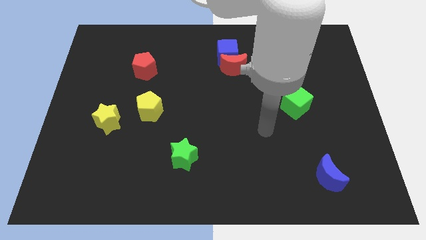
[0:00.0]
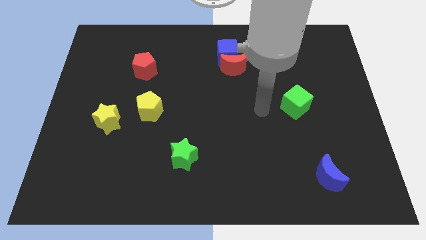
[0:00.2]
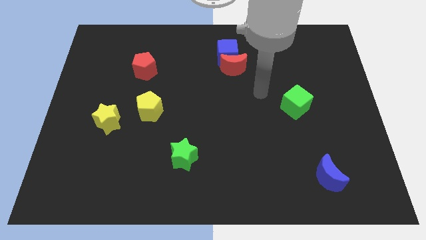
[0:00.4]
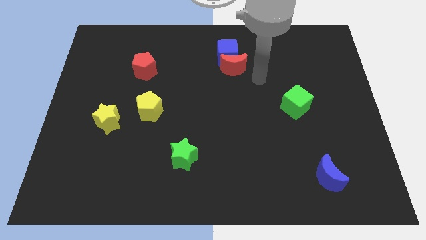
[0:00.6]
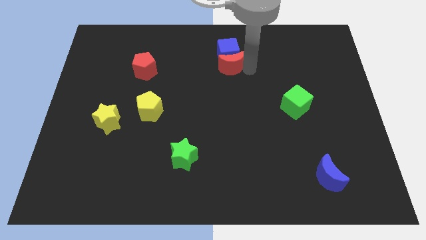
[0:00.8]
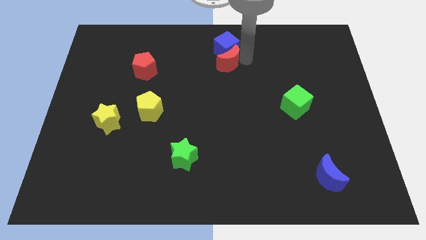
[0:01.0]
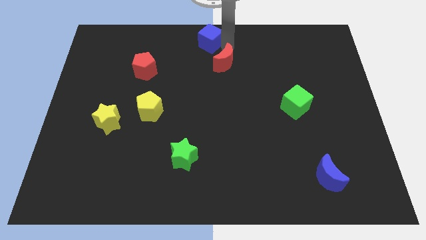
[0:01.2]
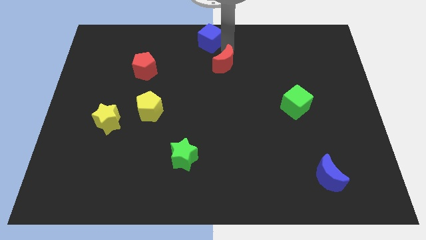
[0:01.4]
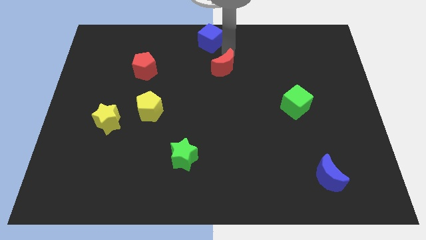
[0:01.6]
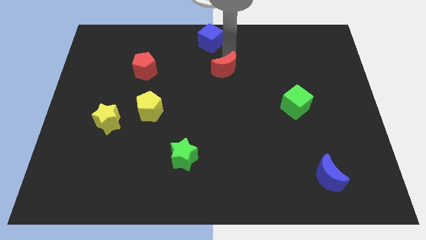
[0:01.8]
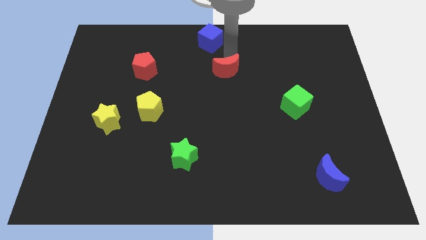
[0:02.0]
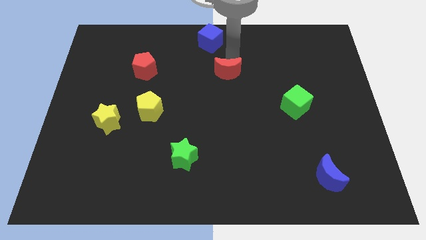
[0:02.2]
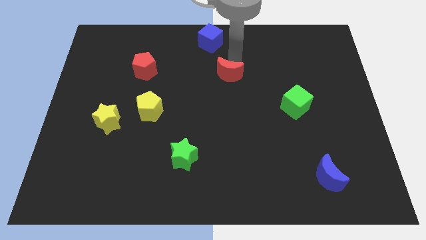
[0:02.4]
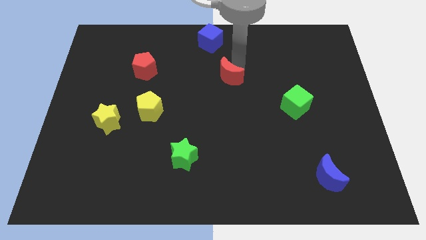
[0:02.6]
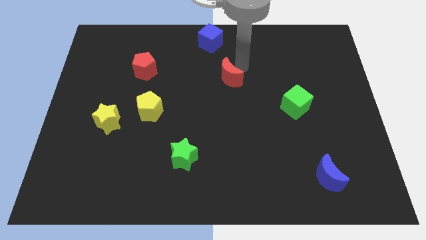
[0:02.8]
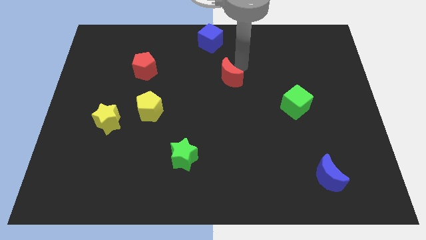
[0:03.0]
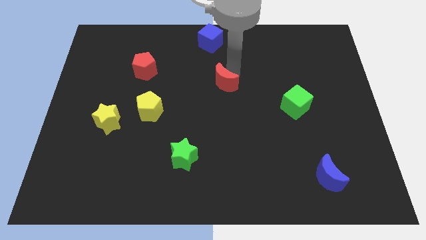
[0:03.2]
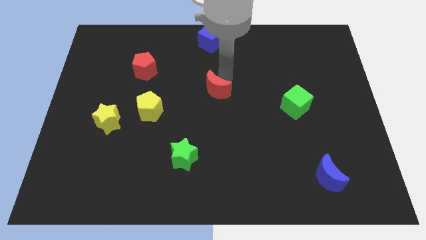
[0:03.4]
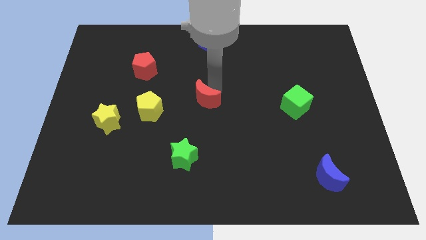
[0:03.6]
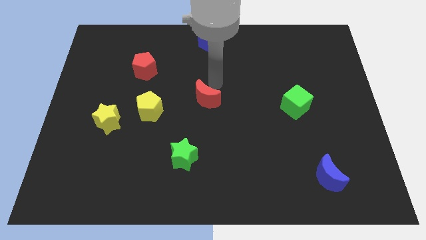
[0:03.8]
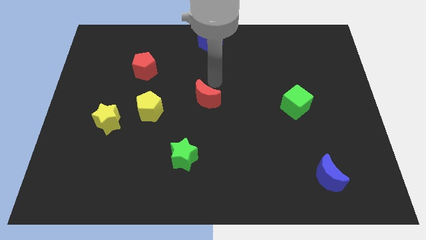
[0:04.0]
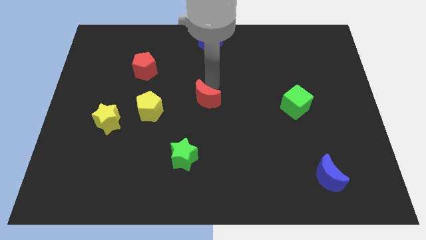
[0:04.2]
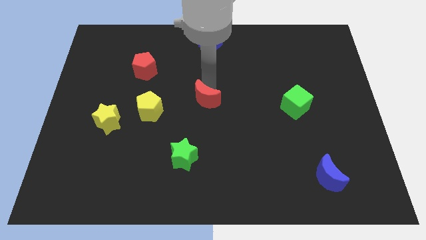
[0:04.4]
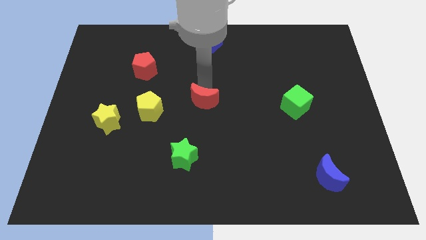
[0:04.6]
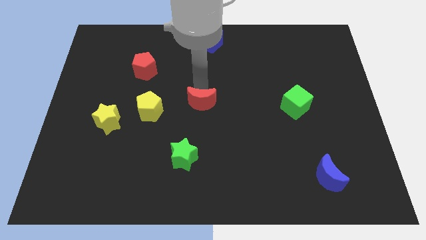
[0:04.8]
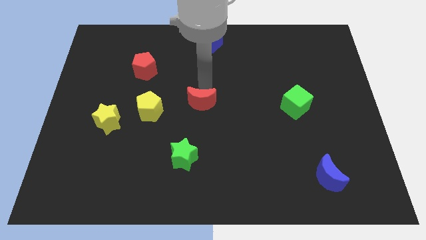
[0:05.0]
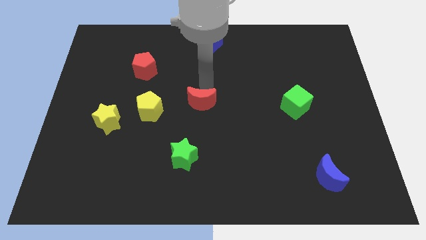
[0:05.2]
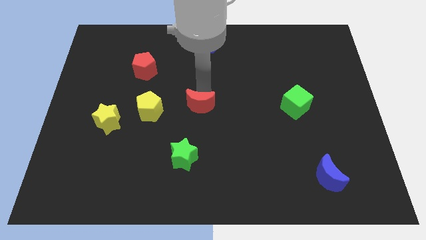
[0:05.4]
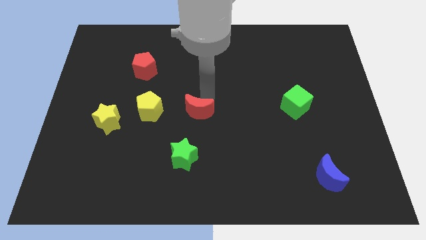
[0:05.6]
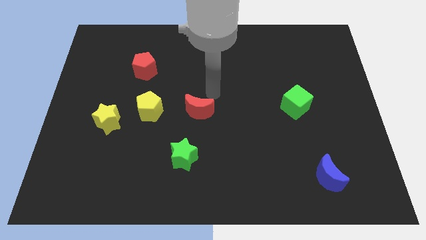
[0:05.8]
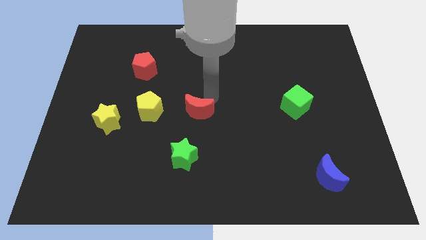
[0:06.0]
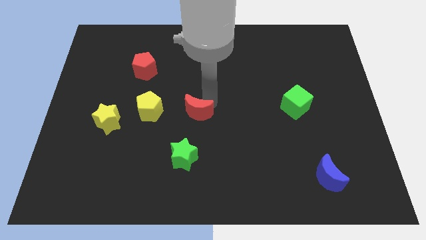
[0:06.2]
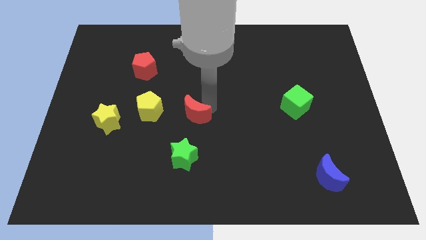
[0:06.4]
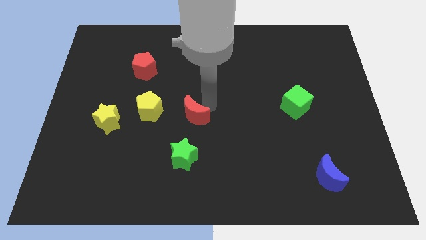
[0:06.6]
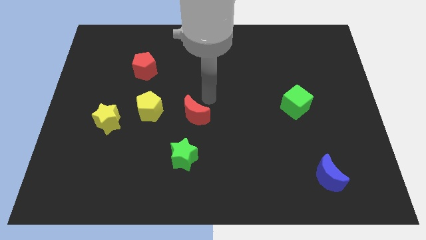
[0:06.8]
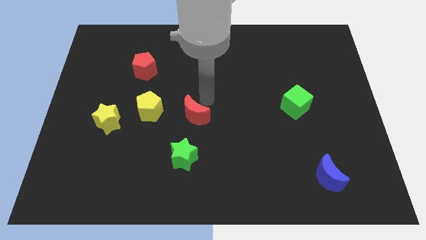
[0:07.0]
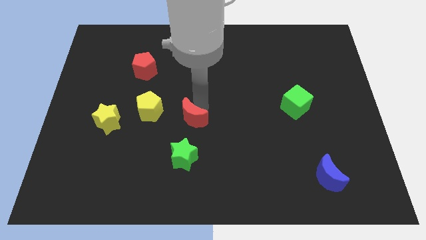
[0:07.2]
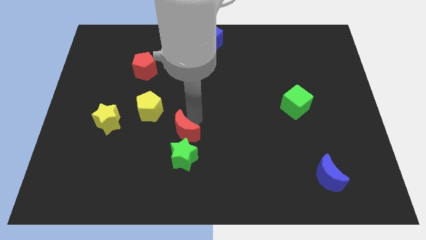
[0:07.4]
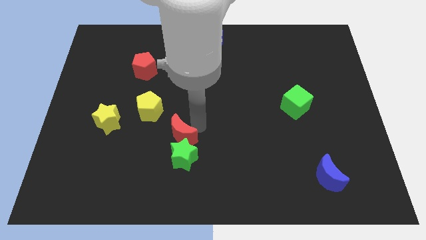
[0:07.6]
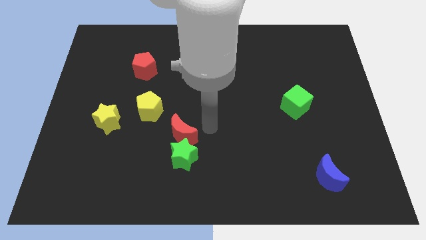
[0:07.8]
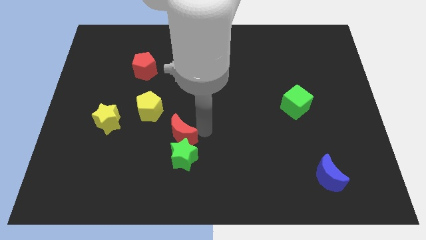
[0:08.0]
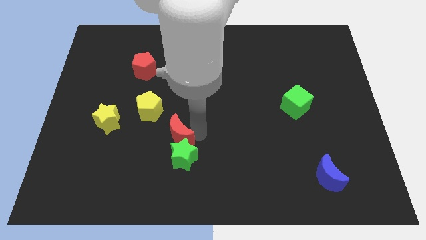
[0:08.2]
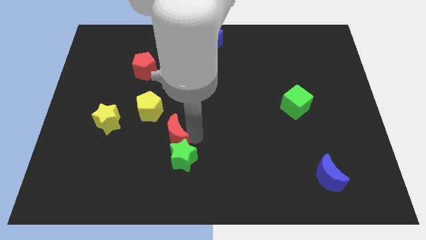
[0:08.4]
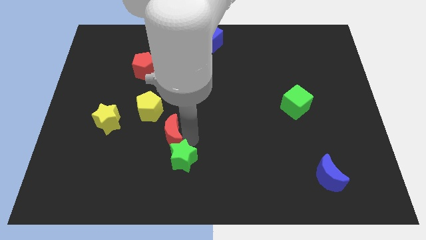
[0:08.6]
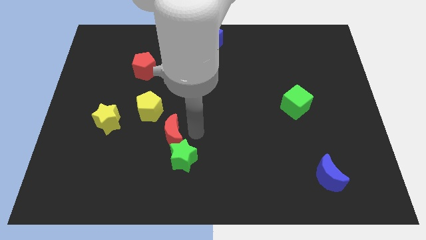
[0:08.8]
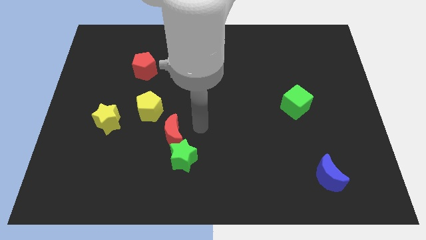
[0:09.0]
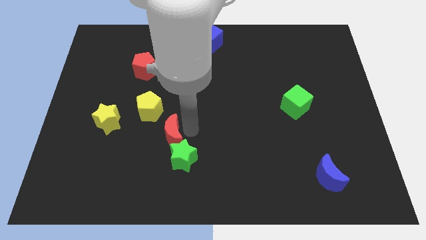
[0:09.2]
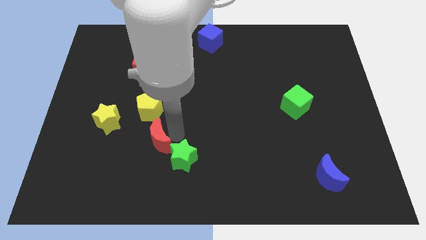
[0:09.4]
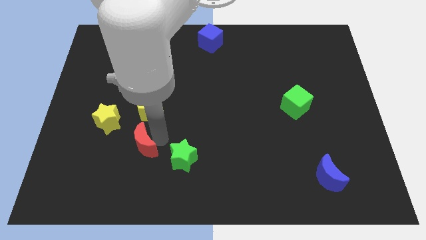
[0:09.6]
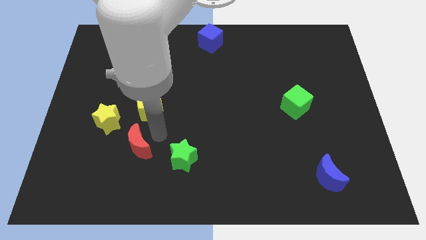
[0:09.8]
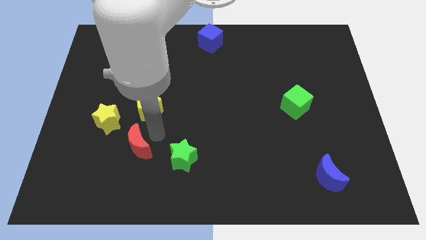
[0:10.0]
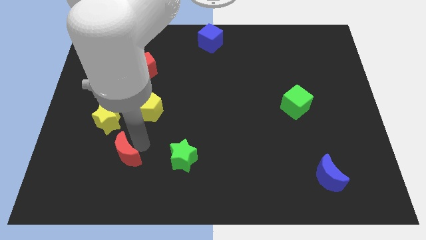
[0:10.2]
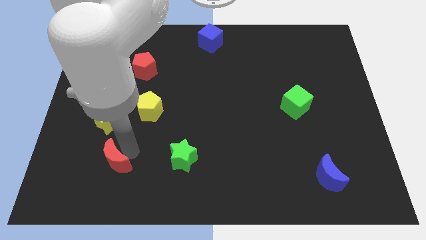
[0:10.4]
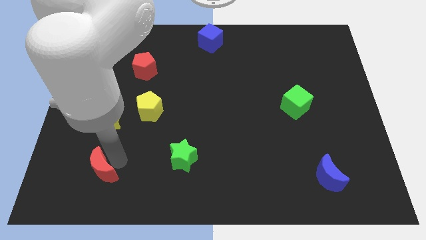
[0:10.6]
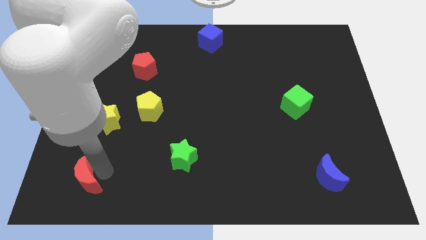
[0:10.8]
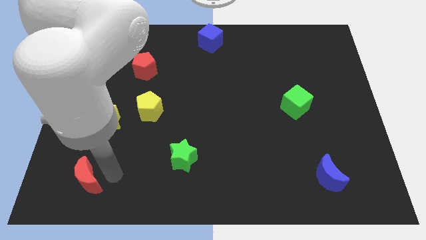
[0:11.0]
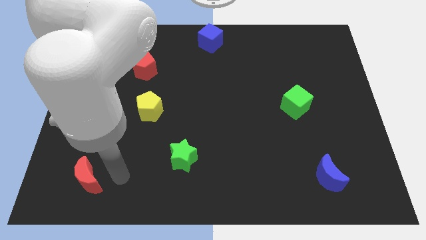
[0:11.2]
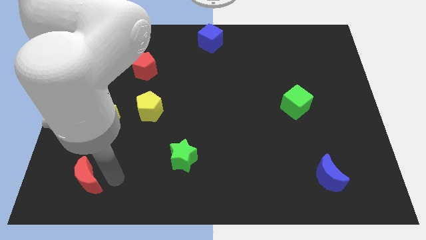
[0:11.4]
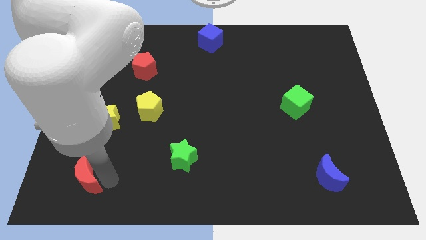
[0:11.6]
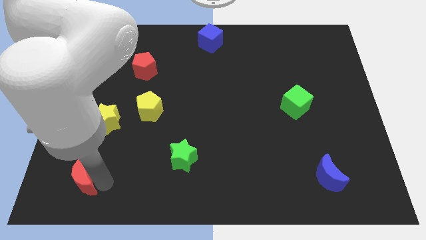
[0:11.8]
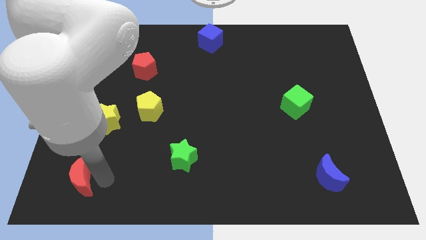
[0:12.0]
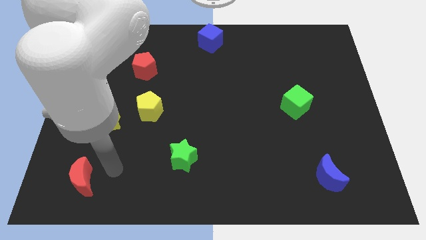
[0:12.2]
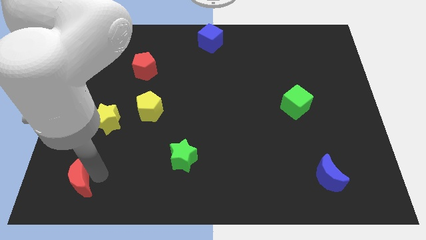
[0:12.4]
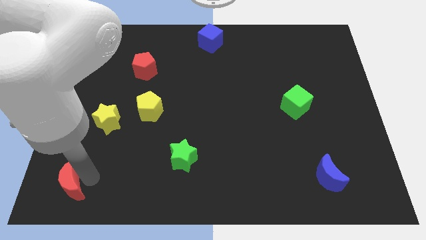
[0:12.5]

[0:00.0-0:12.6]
put the red moon to the bottom left
